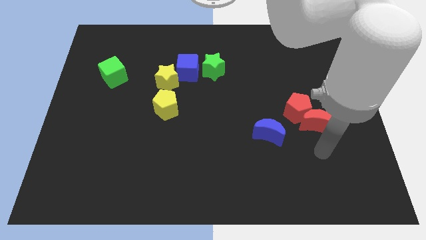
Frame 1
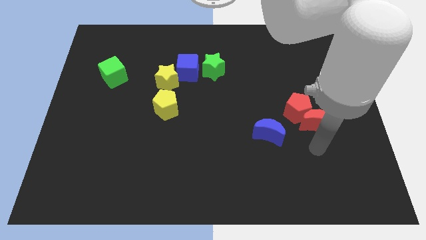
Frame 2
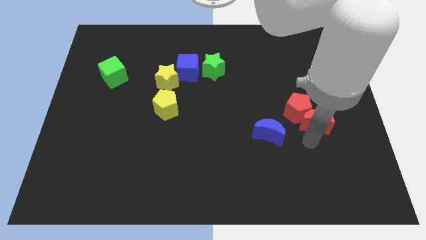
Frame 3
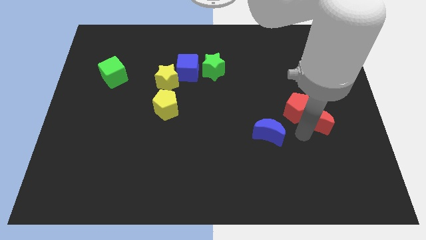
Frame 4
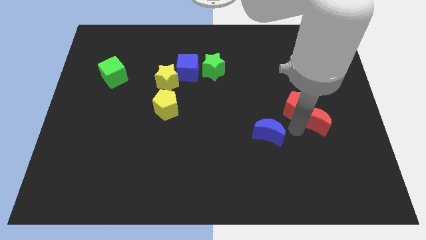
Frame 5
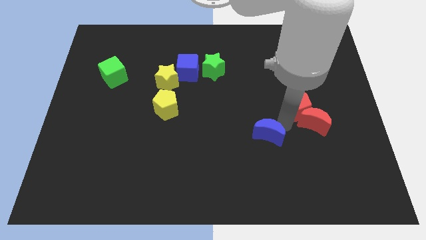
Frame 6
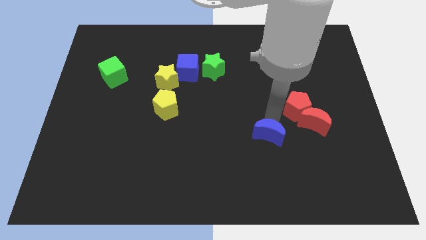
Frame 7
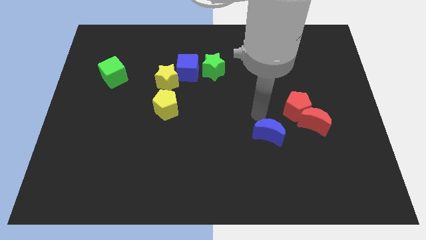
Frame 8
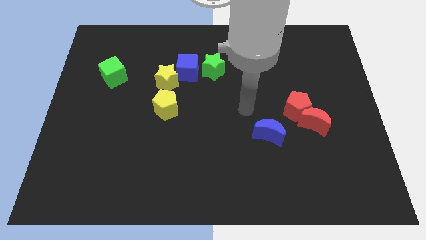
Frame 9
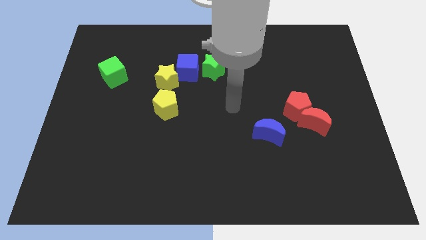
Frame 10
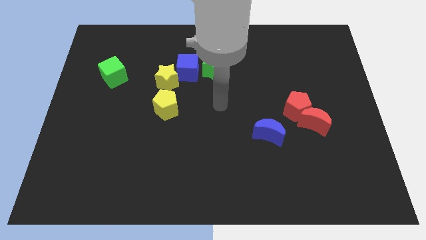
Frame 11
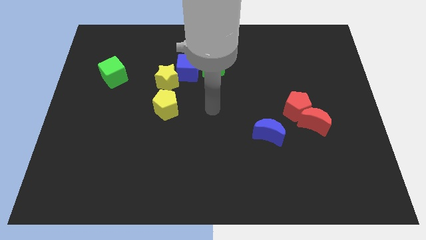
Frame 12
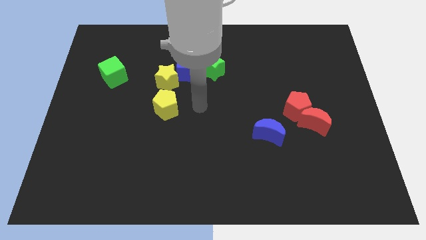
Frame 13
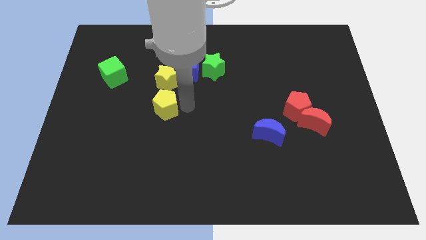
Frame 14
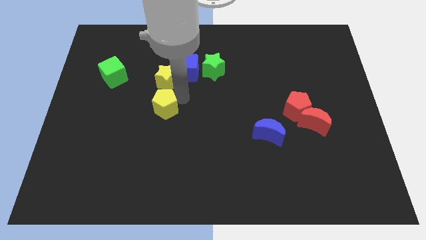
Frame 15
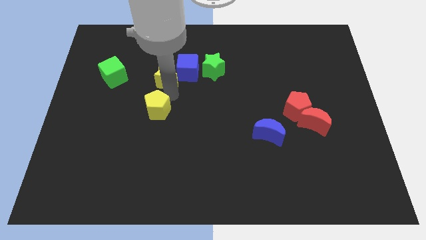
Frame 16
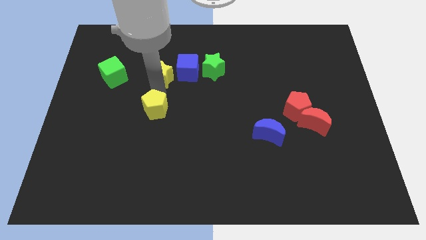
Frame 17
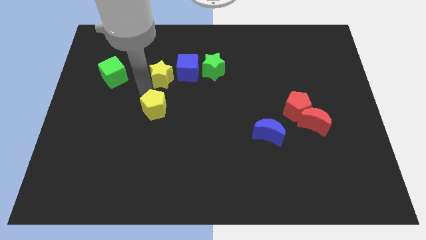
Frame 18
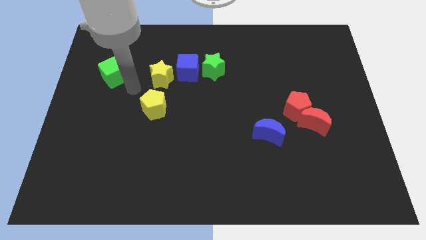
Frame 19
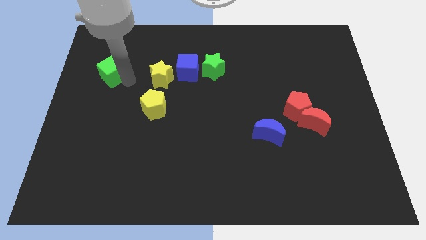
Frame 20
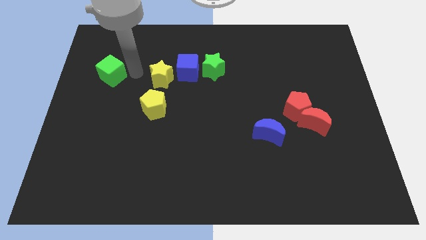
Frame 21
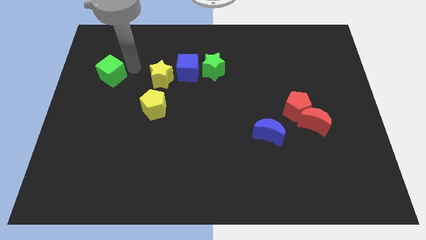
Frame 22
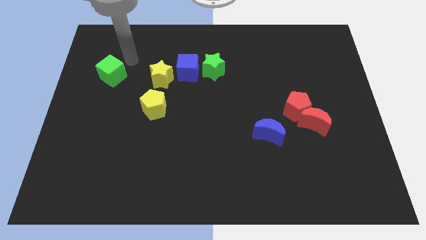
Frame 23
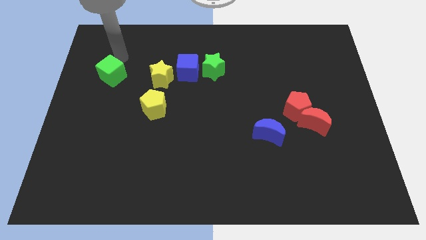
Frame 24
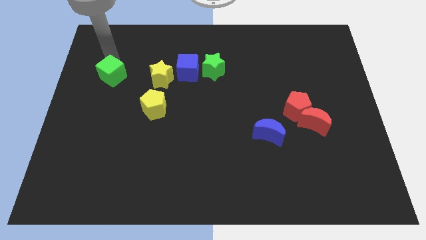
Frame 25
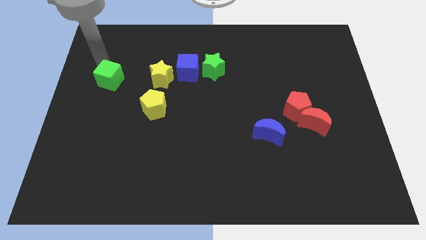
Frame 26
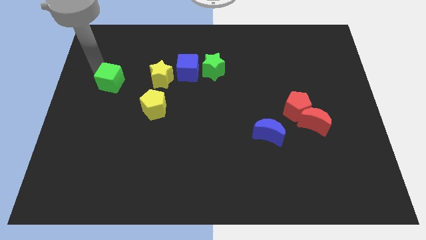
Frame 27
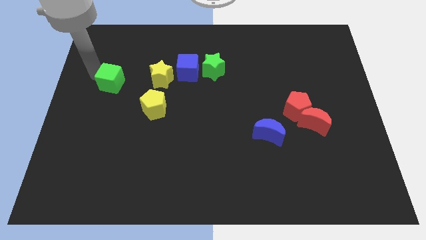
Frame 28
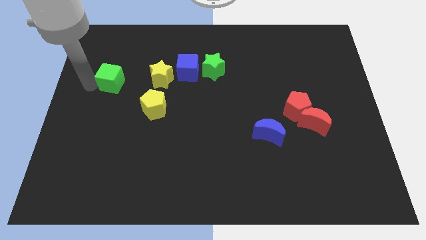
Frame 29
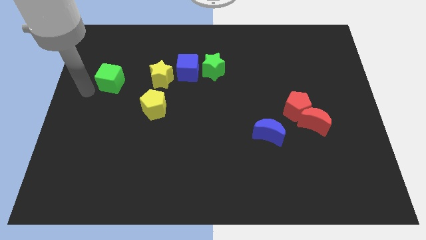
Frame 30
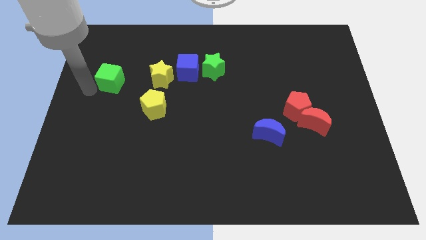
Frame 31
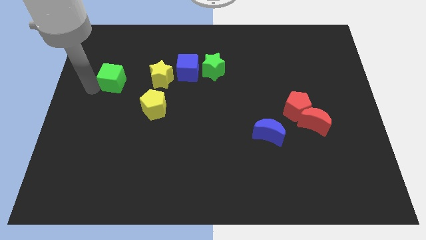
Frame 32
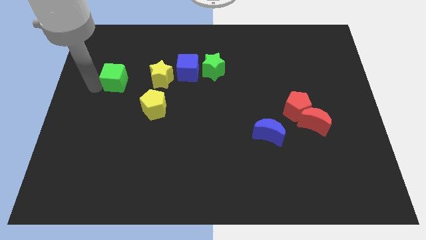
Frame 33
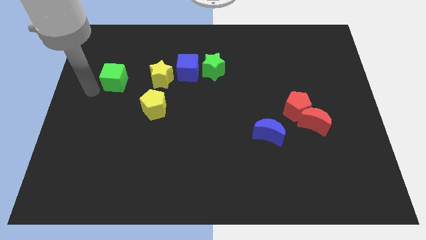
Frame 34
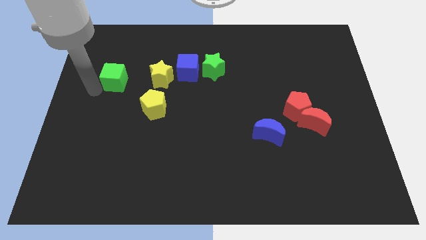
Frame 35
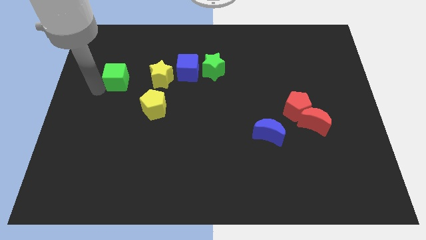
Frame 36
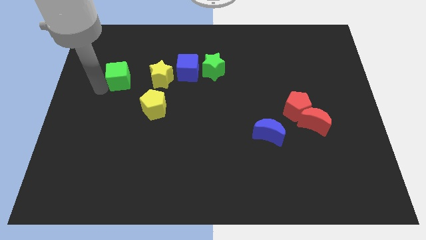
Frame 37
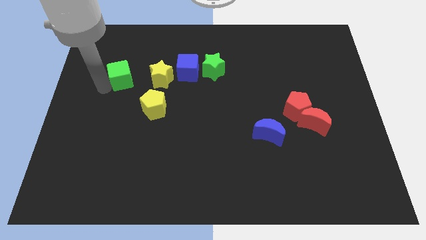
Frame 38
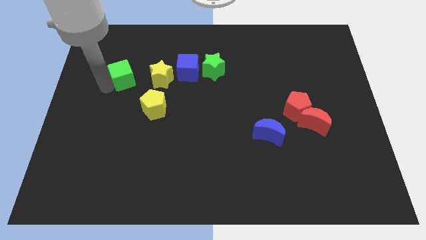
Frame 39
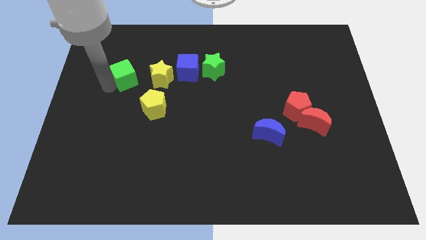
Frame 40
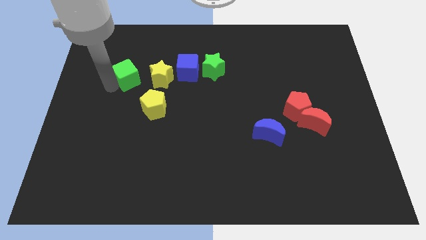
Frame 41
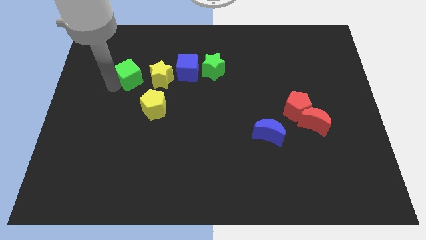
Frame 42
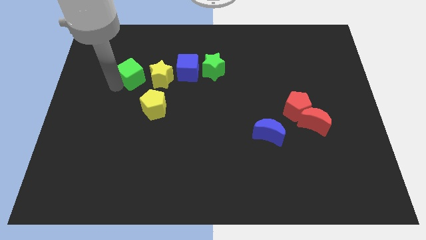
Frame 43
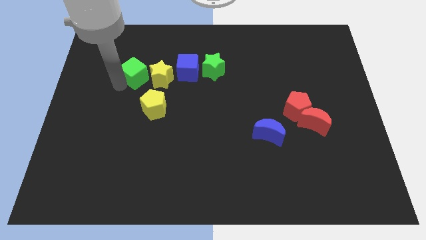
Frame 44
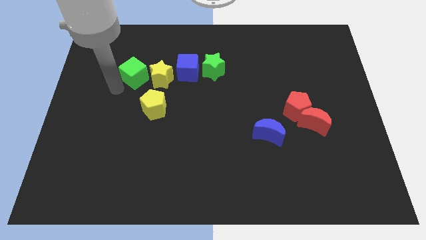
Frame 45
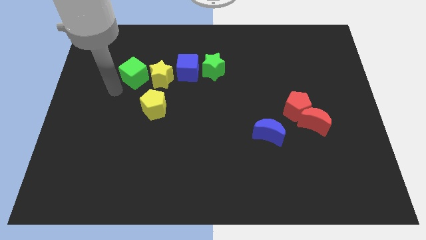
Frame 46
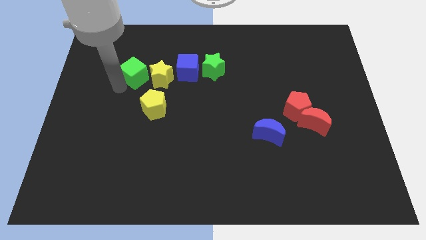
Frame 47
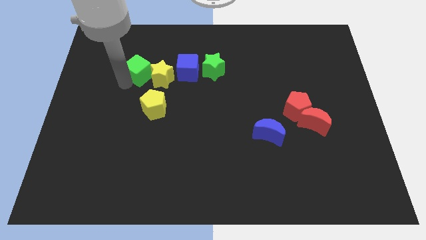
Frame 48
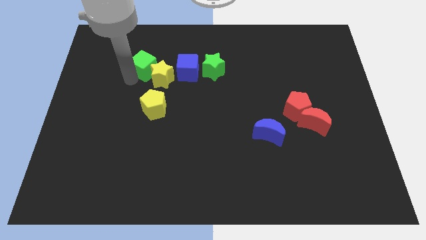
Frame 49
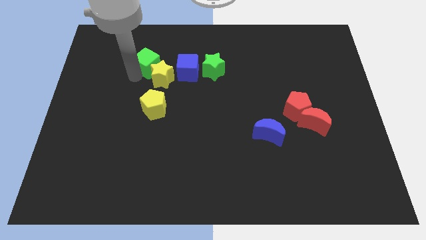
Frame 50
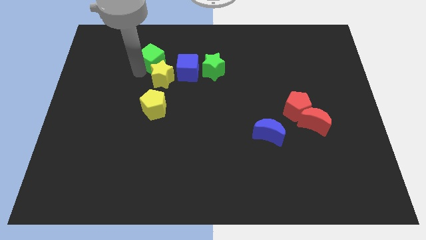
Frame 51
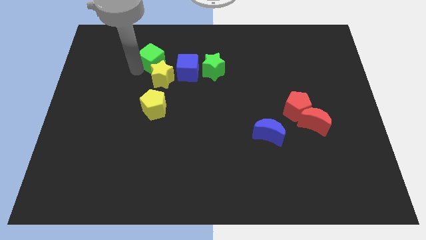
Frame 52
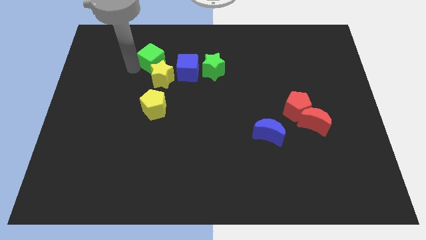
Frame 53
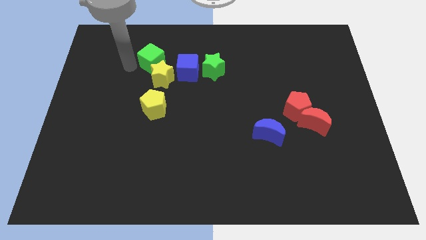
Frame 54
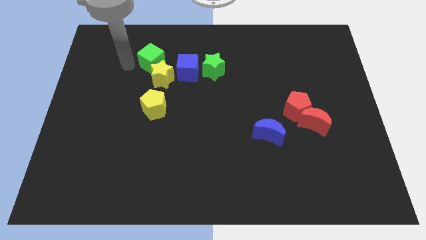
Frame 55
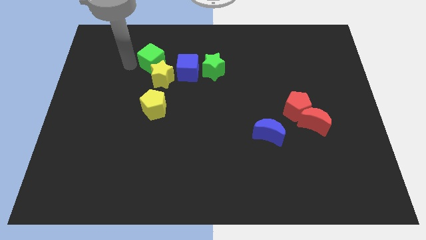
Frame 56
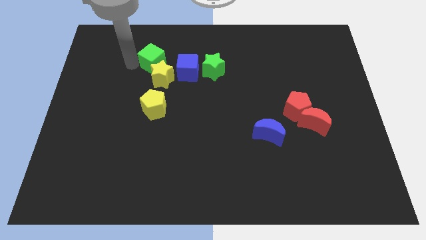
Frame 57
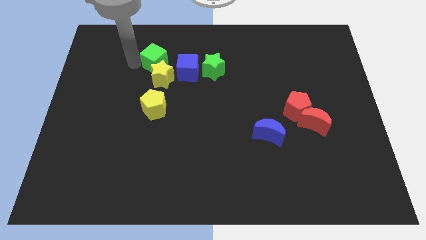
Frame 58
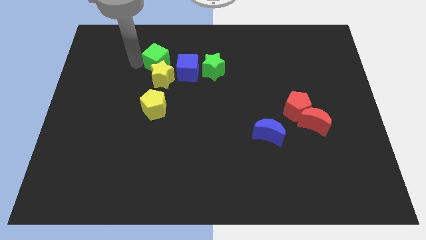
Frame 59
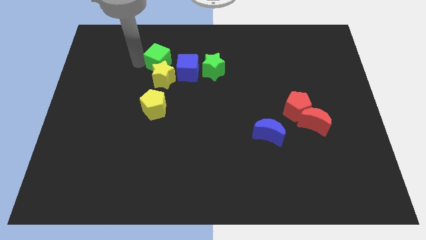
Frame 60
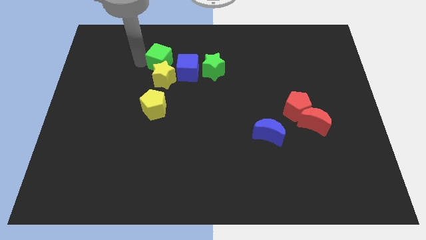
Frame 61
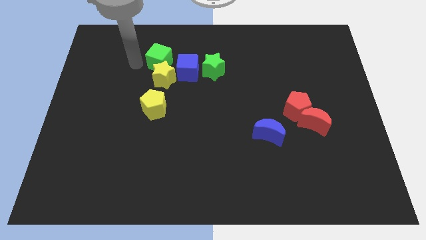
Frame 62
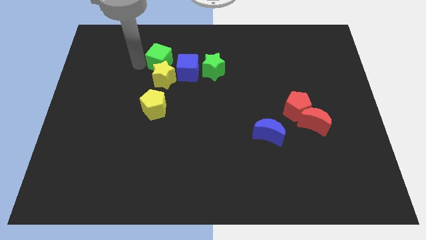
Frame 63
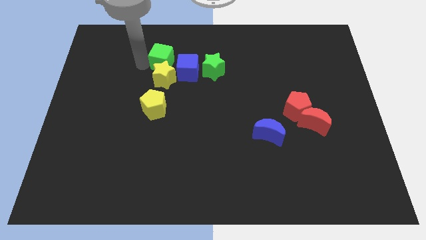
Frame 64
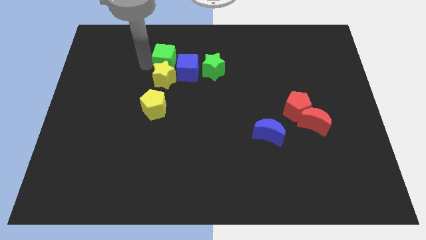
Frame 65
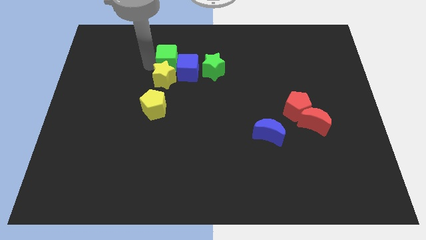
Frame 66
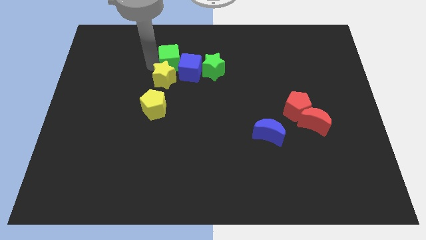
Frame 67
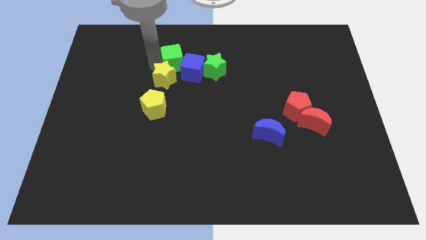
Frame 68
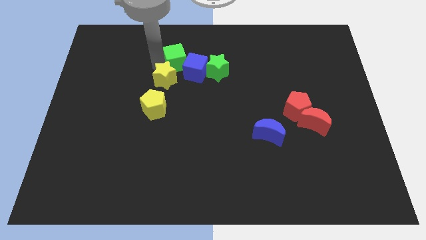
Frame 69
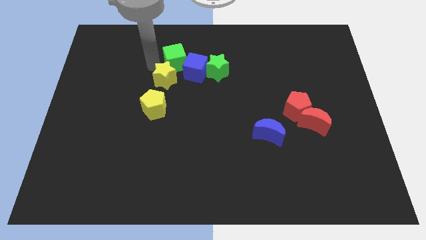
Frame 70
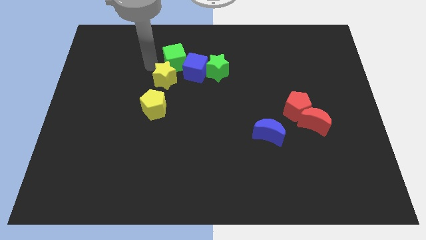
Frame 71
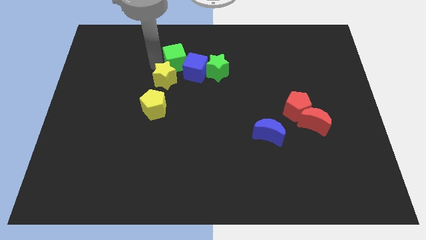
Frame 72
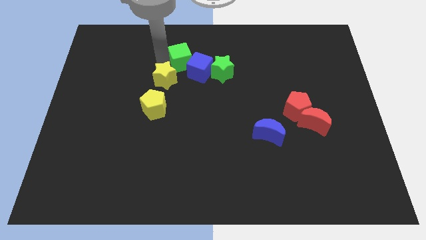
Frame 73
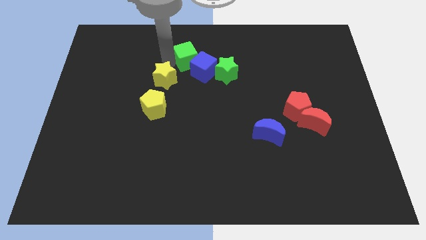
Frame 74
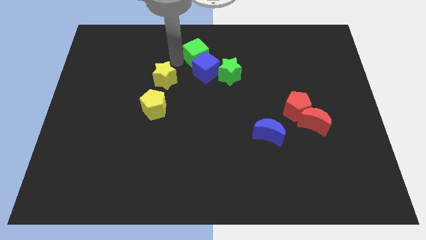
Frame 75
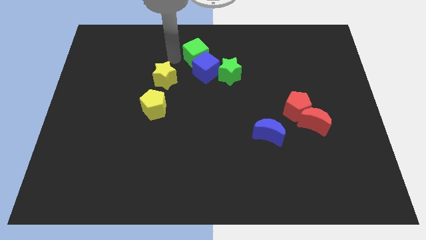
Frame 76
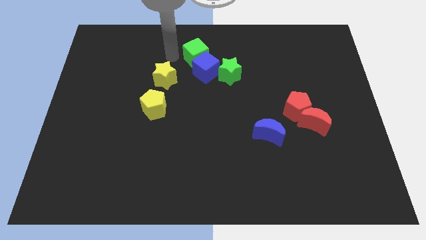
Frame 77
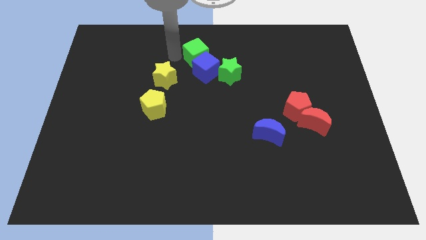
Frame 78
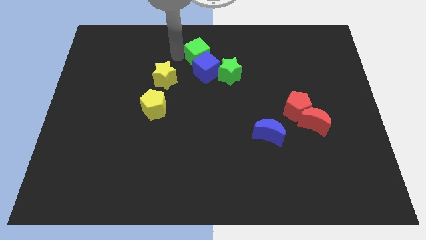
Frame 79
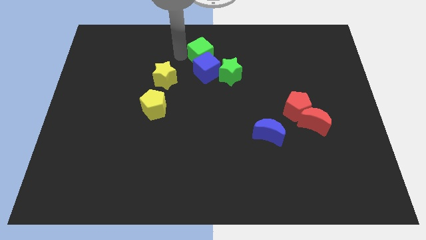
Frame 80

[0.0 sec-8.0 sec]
slide the green cube to the right
